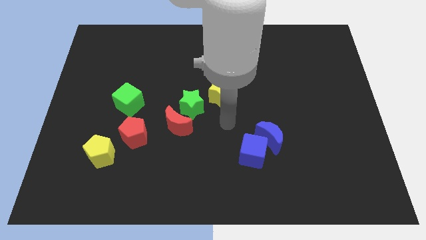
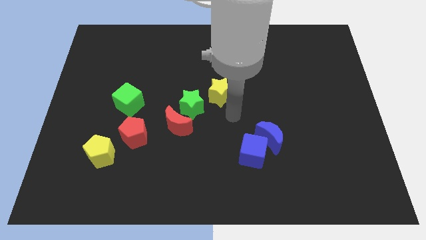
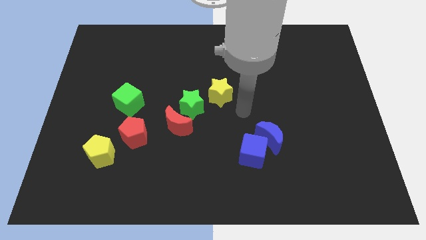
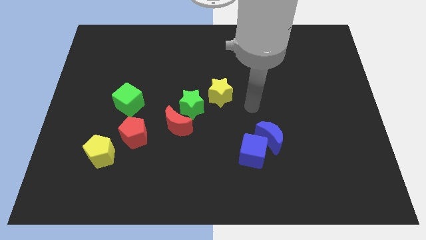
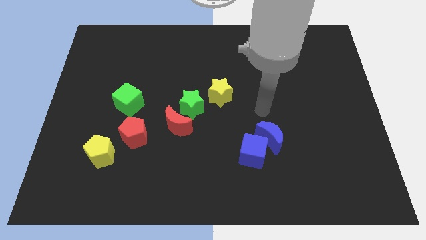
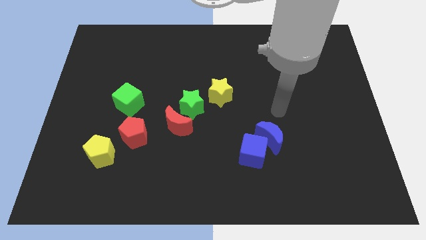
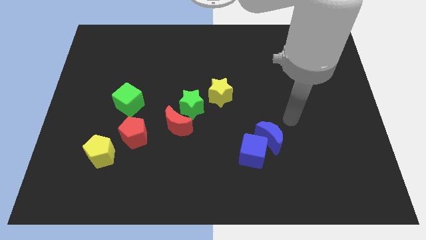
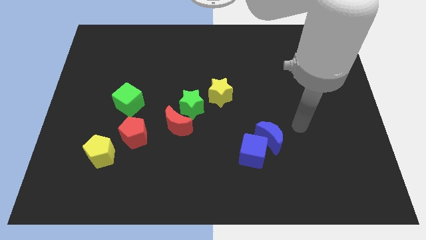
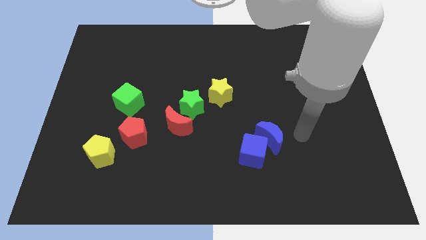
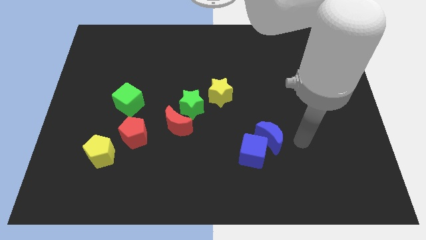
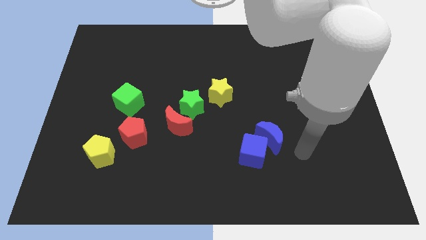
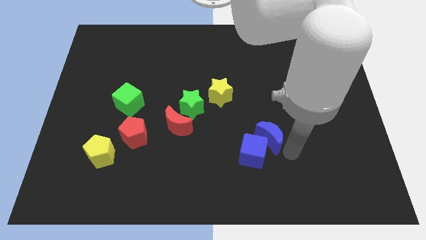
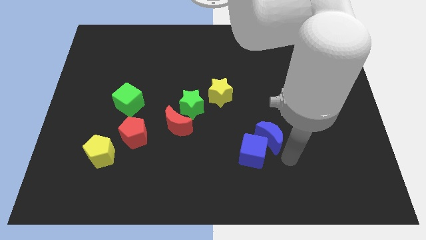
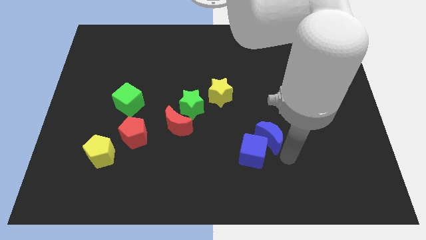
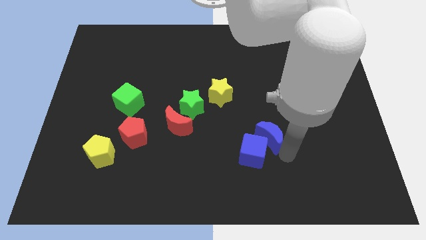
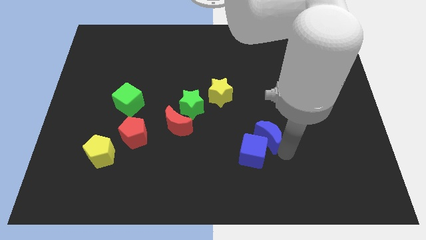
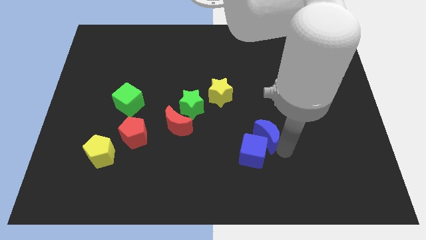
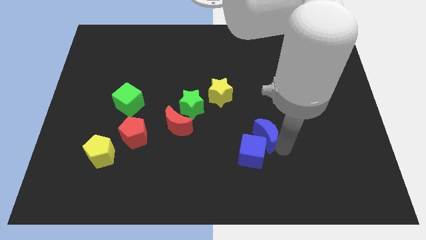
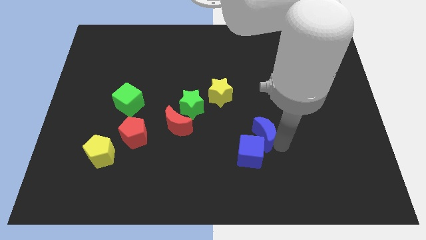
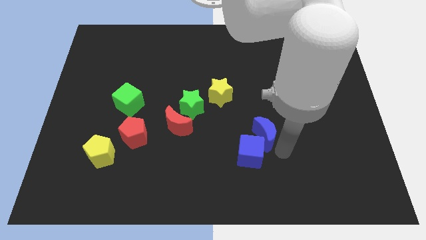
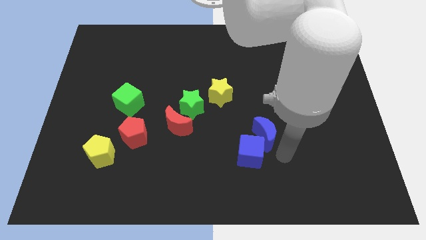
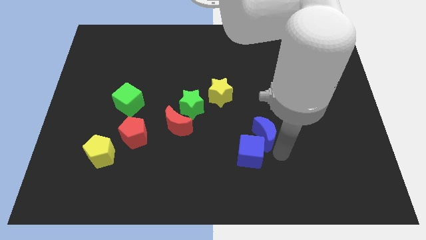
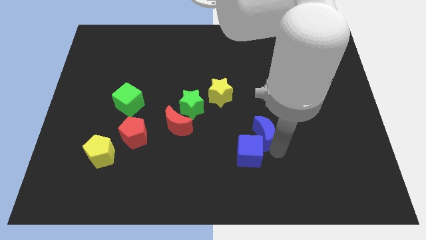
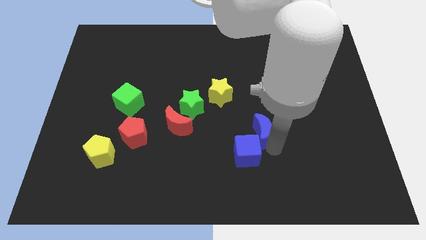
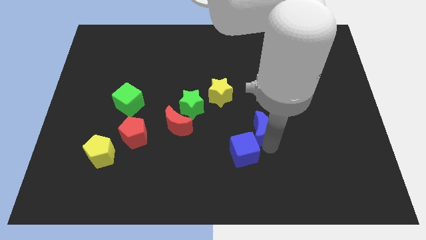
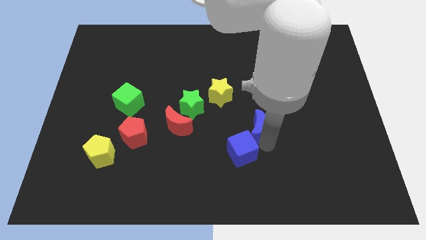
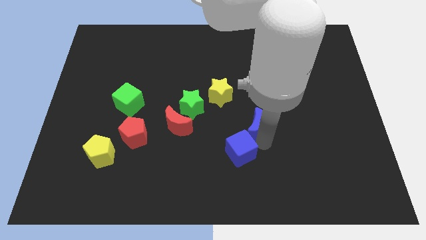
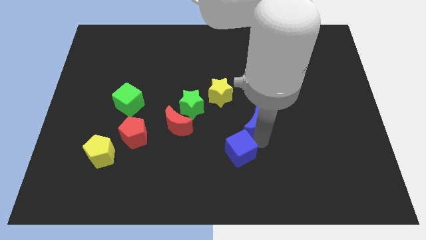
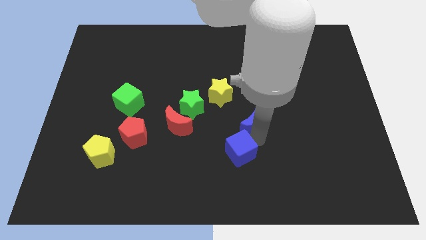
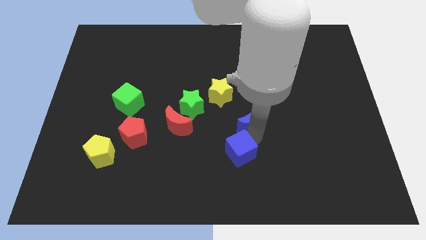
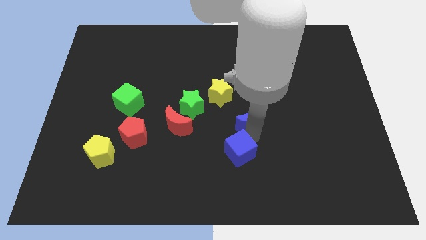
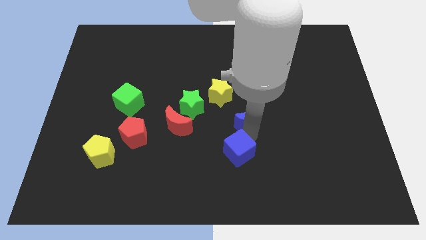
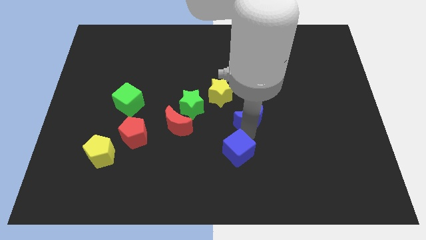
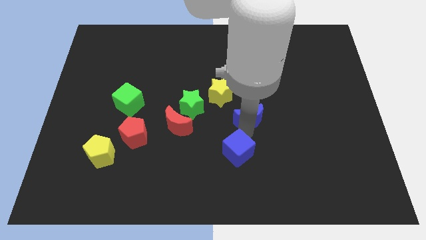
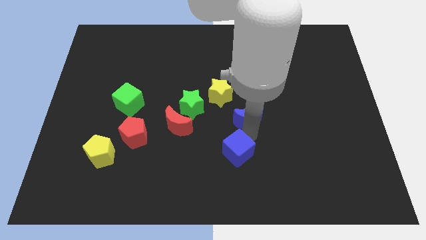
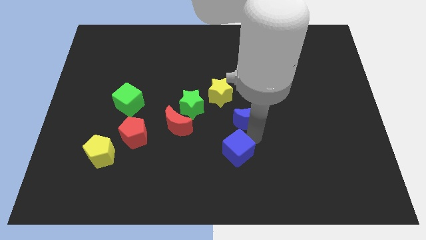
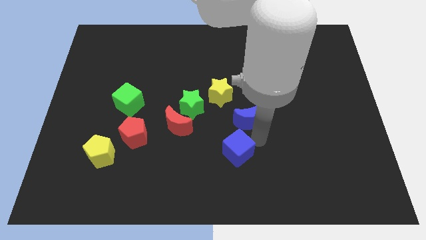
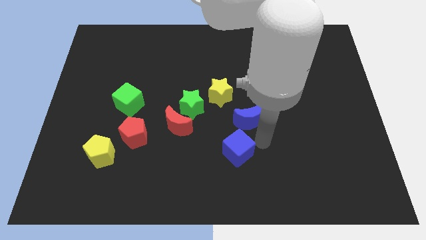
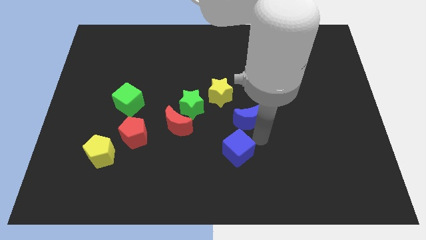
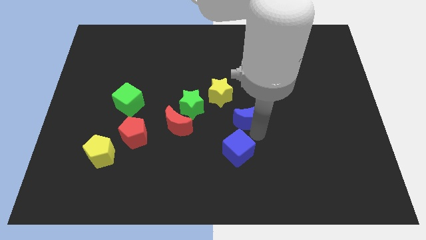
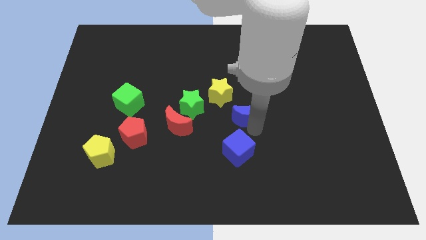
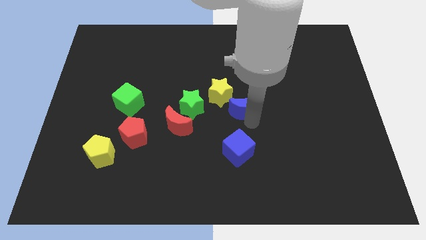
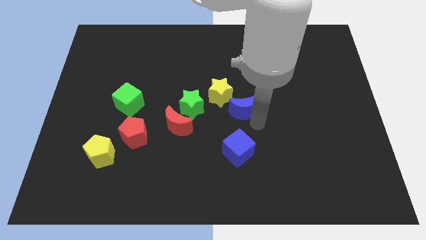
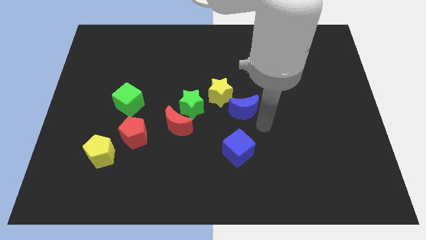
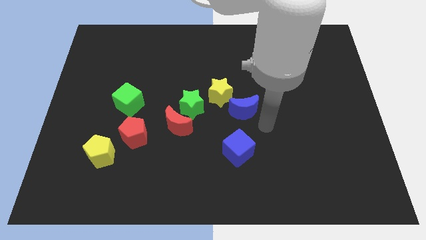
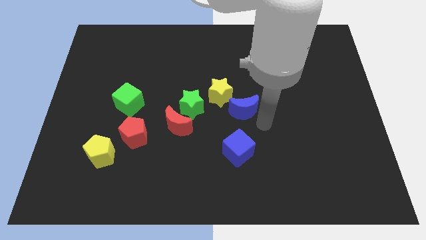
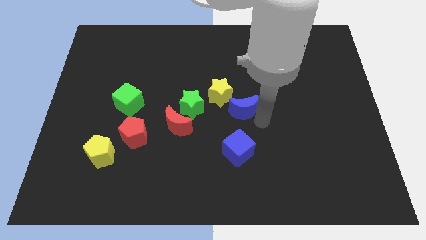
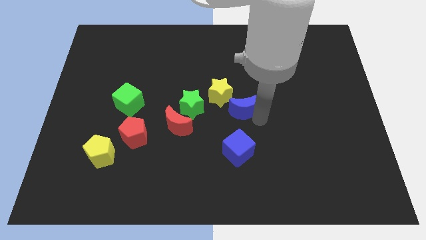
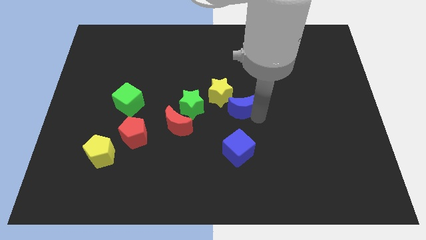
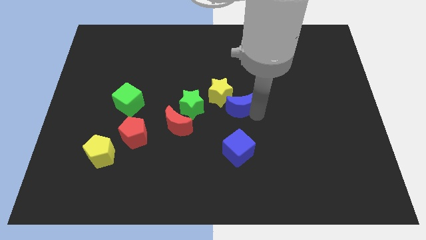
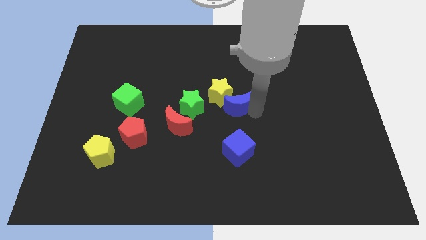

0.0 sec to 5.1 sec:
put the blue moon next to the yellow star

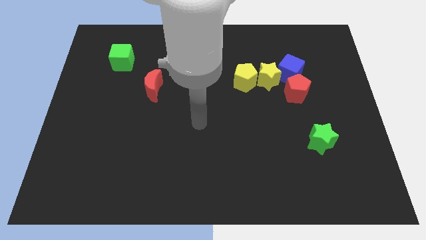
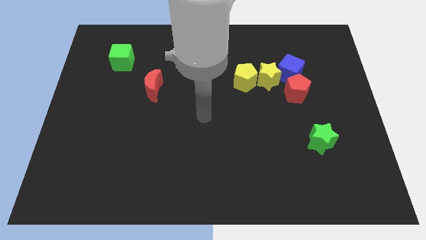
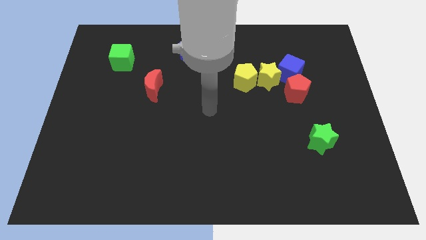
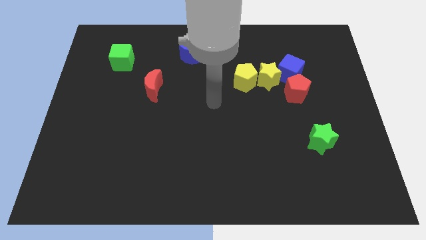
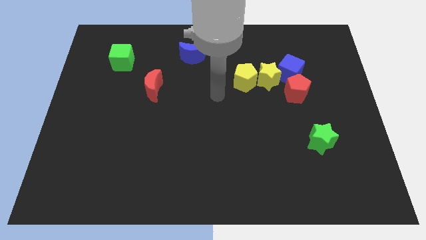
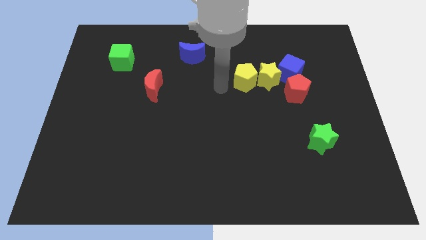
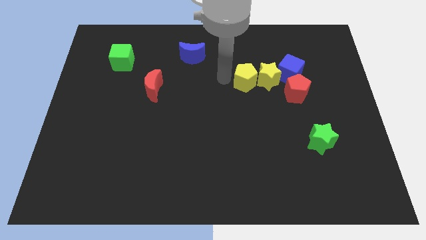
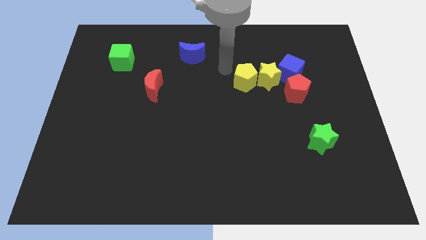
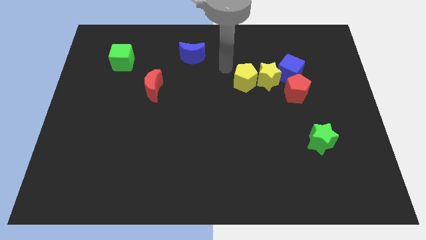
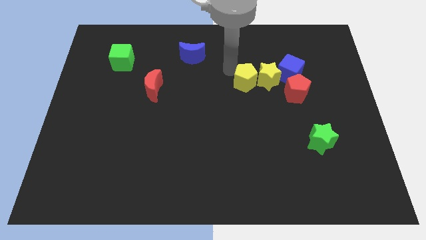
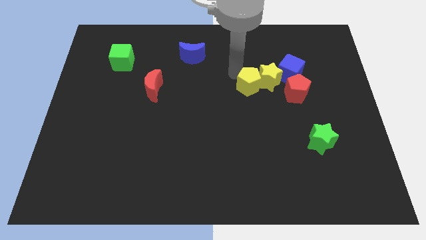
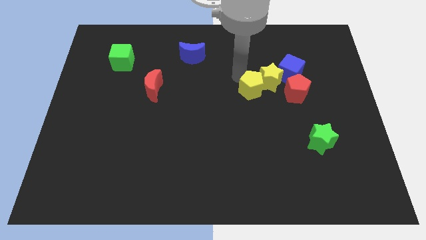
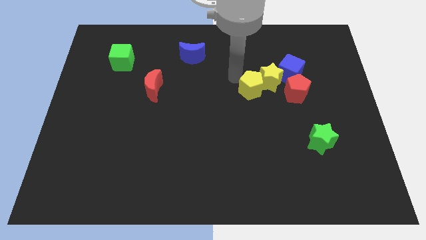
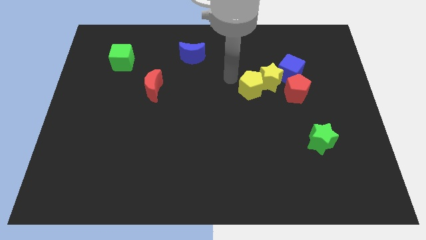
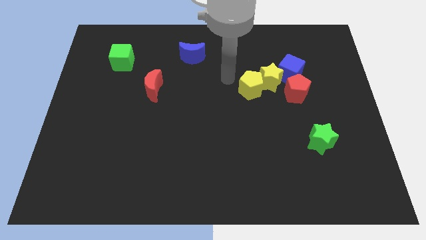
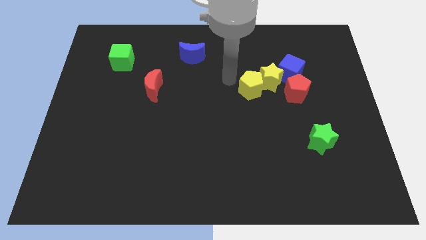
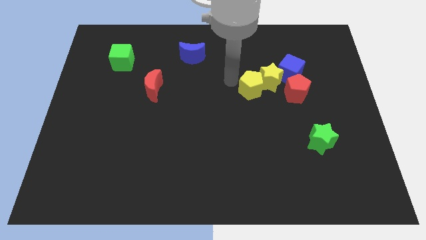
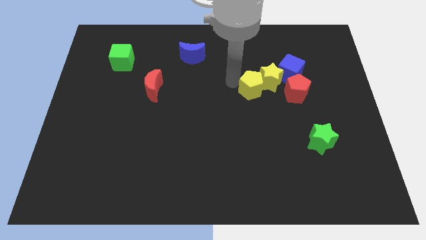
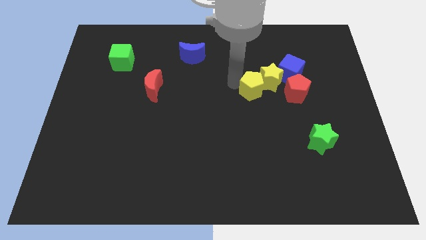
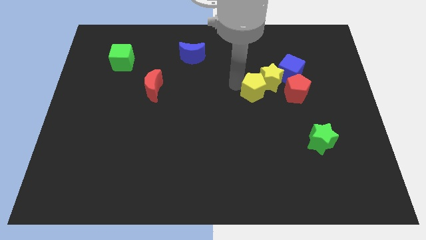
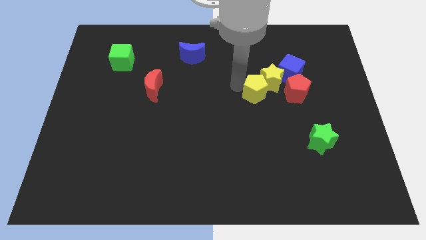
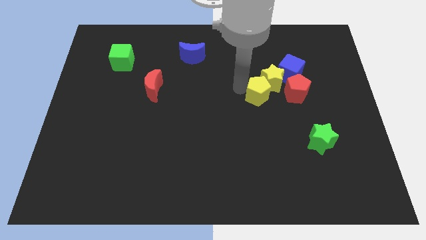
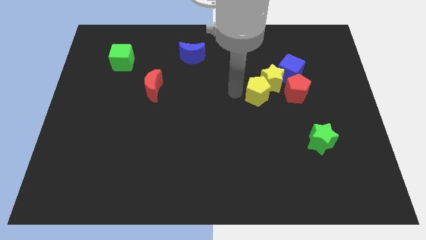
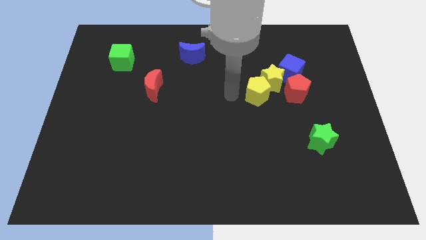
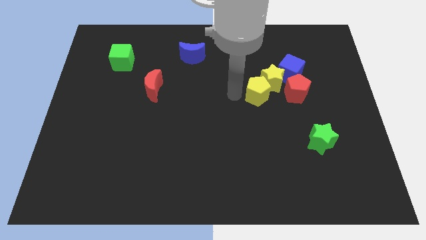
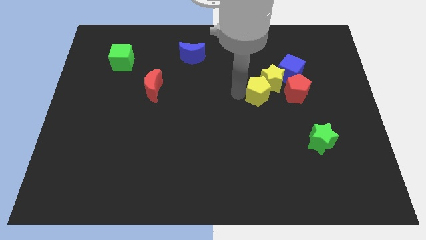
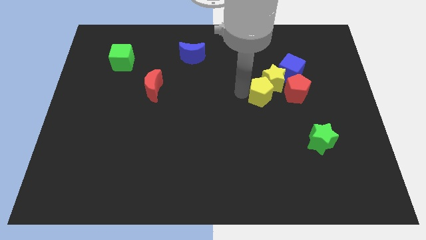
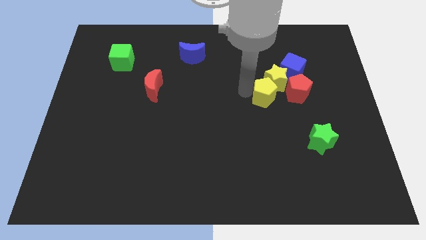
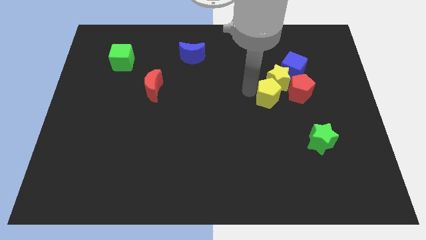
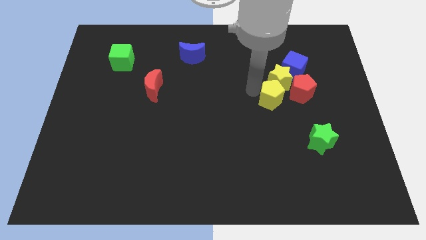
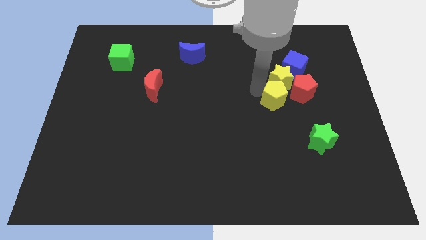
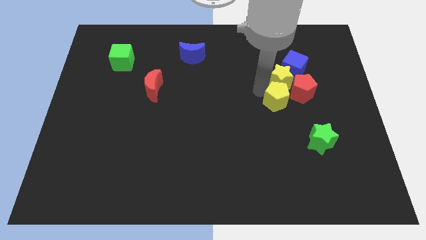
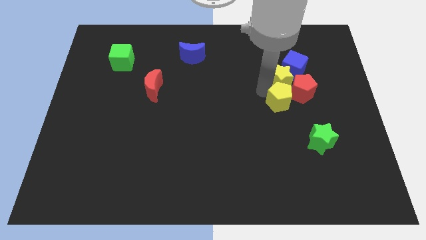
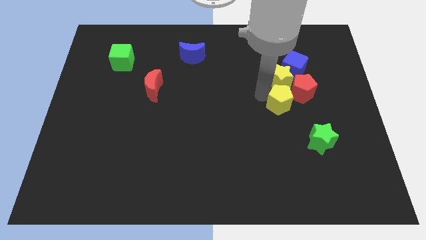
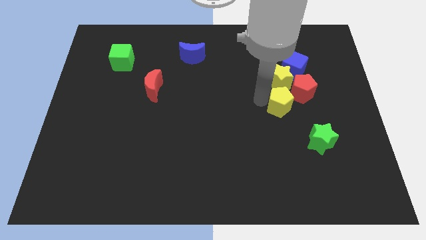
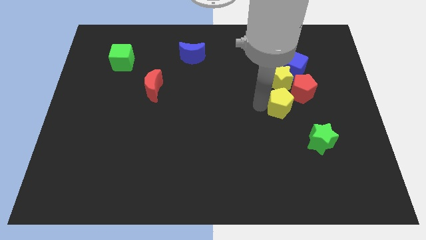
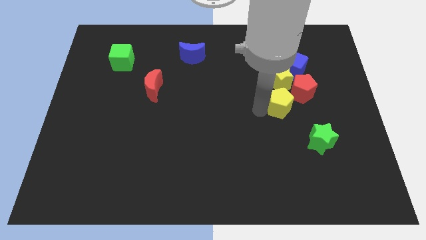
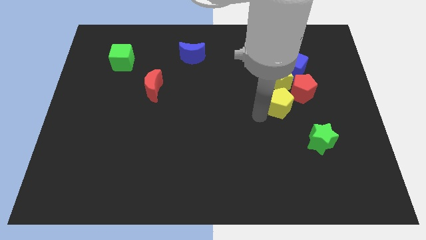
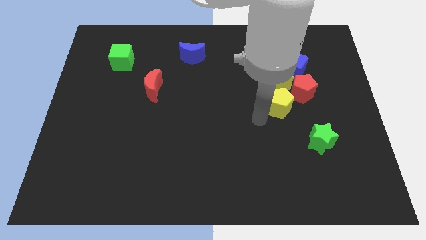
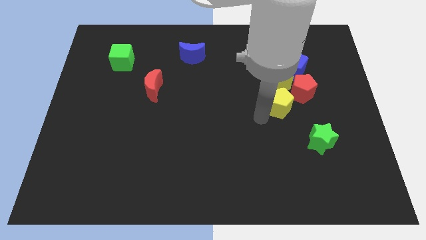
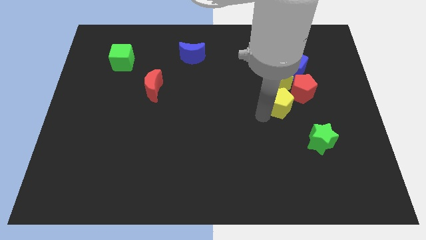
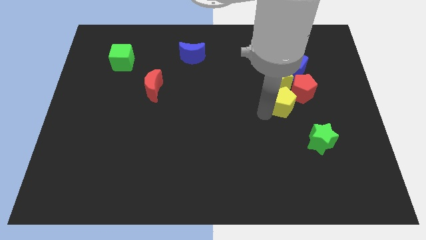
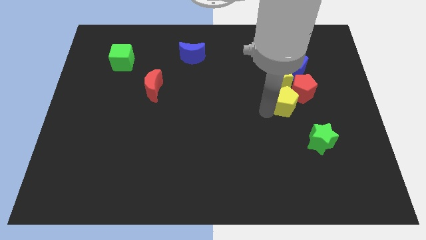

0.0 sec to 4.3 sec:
push the yellow pentagon to the red pentagon
